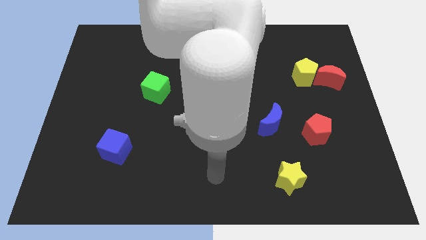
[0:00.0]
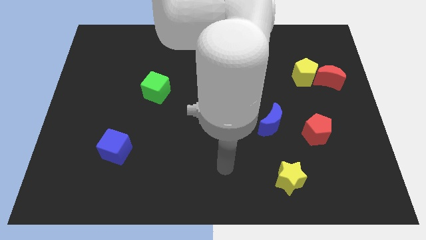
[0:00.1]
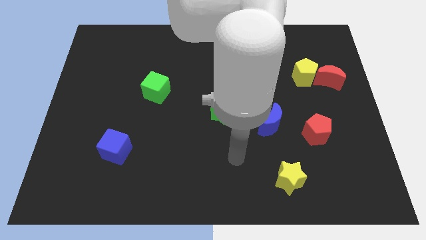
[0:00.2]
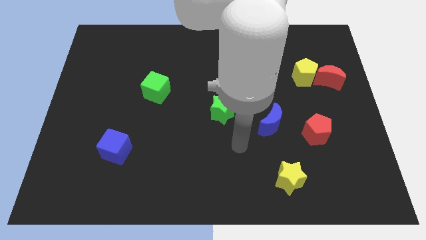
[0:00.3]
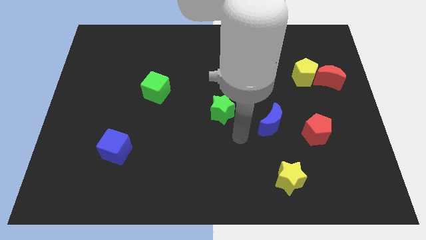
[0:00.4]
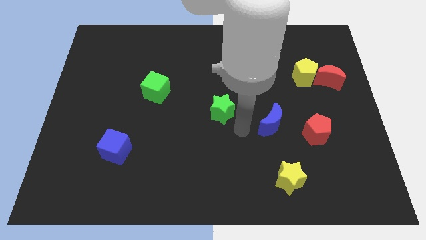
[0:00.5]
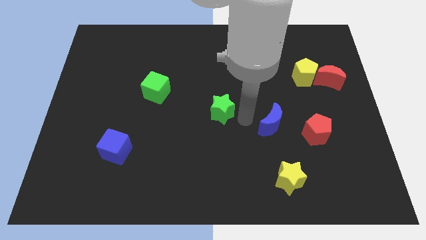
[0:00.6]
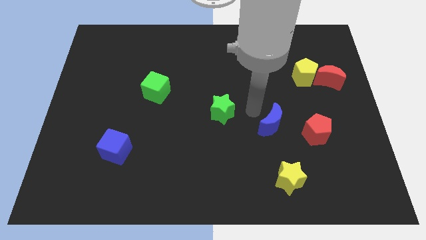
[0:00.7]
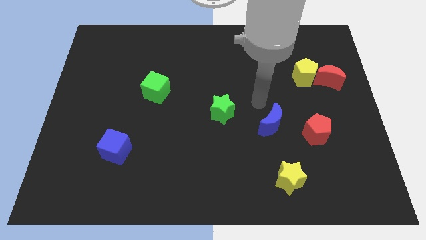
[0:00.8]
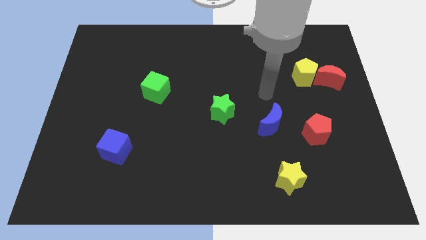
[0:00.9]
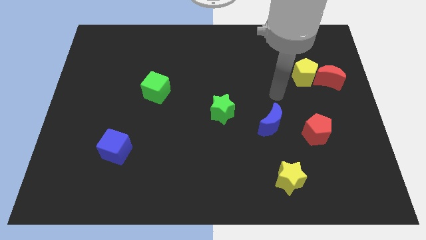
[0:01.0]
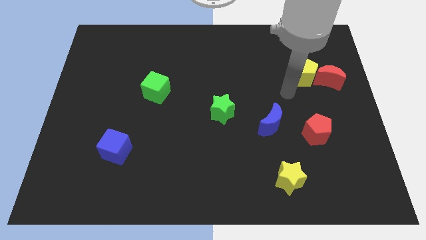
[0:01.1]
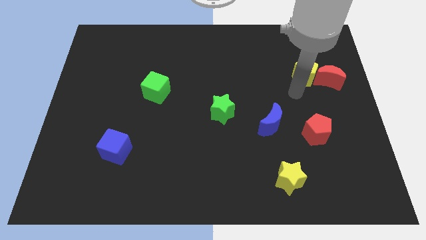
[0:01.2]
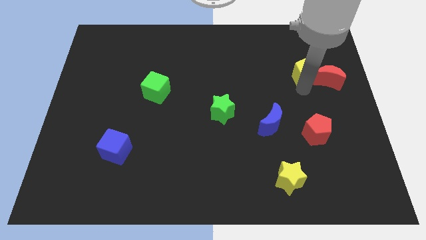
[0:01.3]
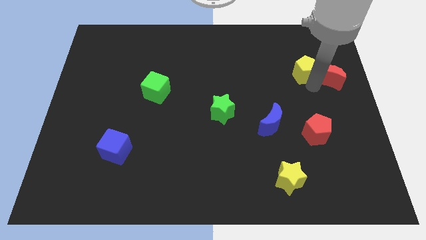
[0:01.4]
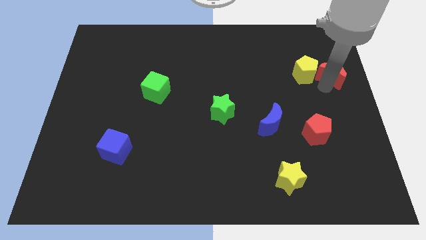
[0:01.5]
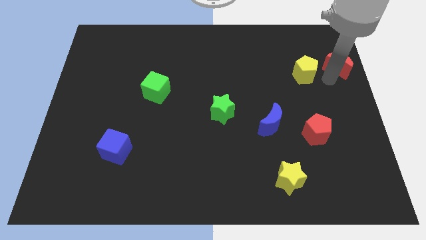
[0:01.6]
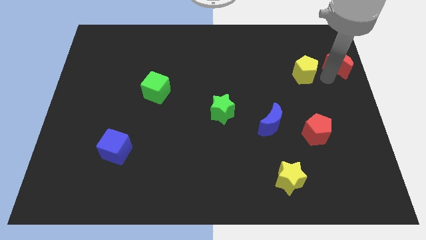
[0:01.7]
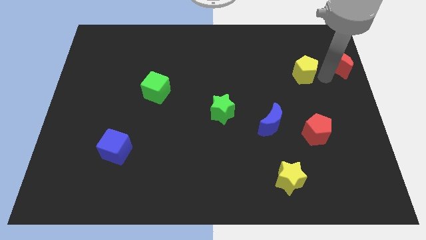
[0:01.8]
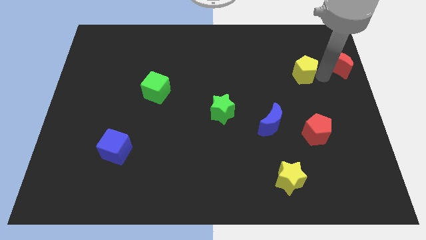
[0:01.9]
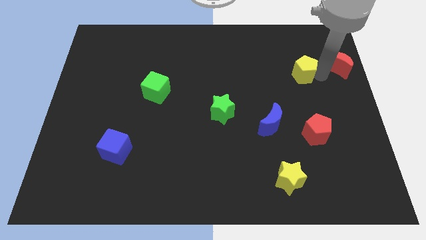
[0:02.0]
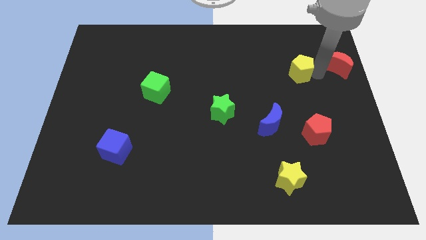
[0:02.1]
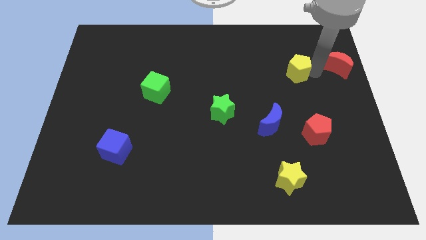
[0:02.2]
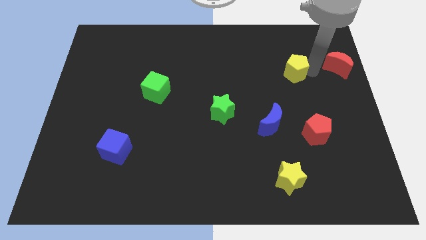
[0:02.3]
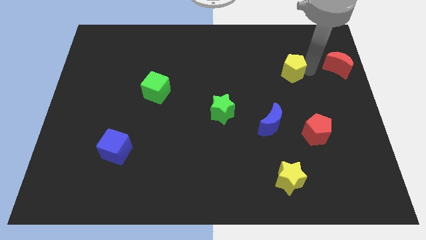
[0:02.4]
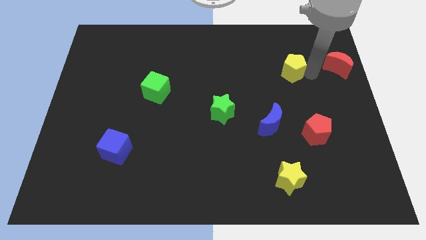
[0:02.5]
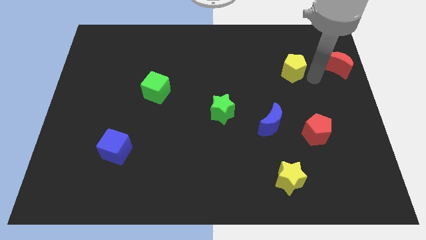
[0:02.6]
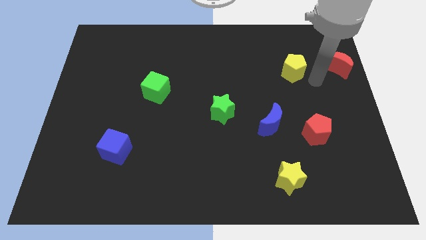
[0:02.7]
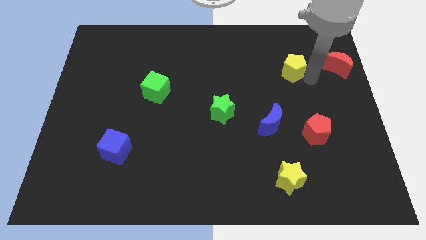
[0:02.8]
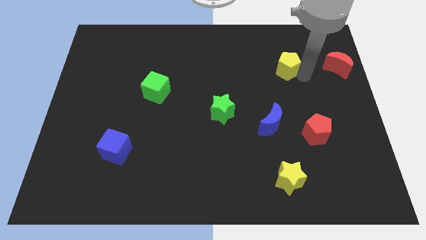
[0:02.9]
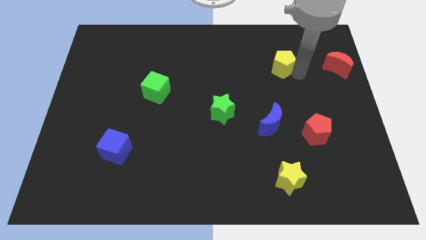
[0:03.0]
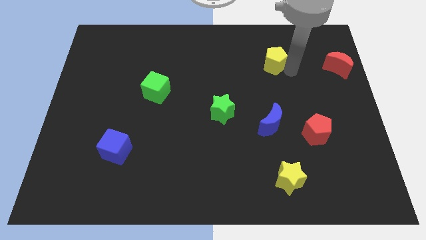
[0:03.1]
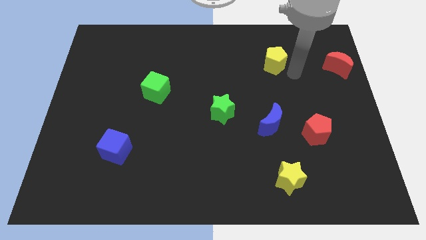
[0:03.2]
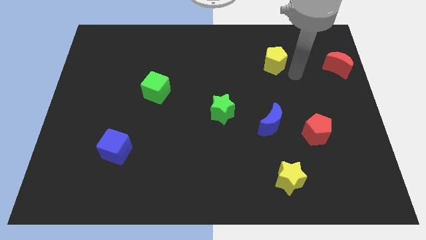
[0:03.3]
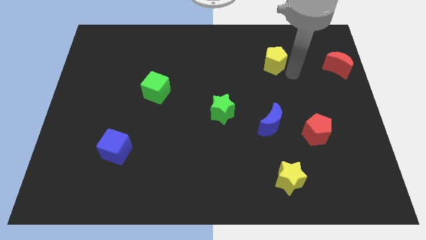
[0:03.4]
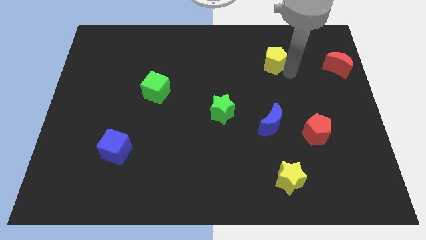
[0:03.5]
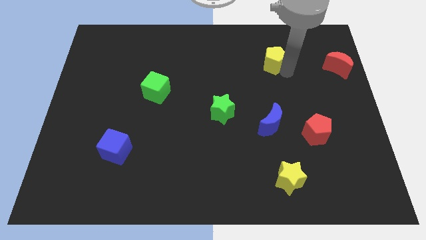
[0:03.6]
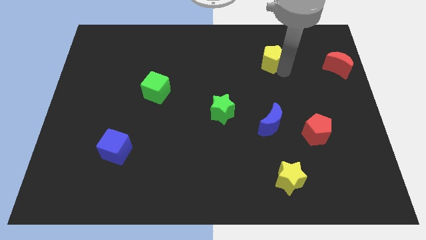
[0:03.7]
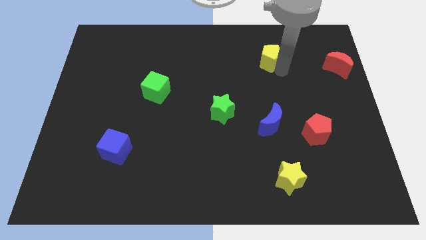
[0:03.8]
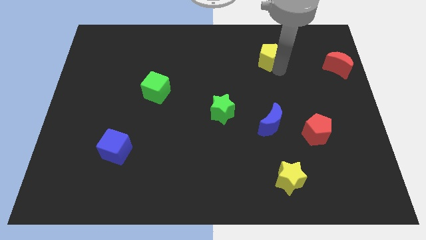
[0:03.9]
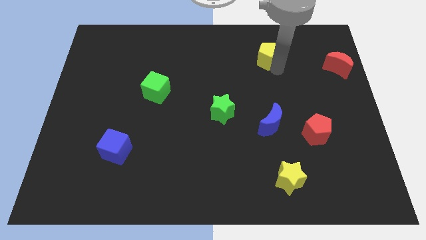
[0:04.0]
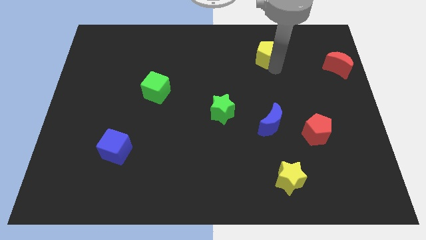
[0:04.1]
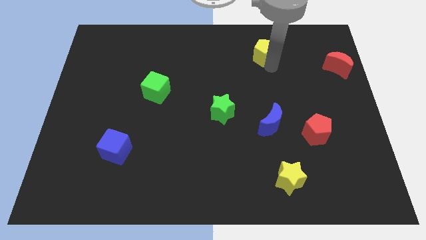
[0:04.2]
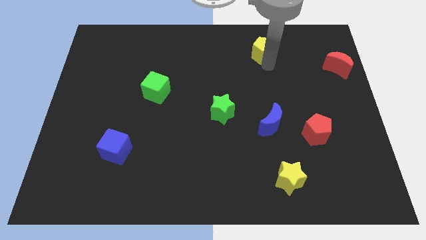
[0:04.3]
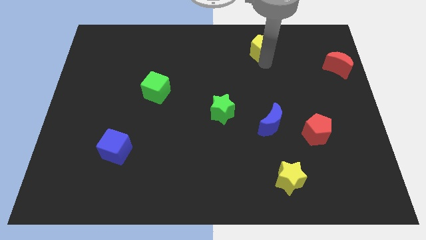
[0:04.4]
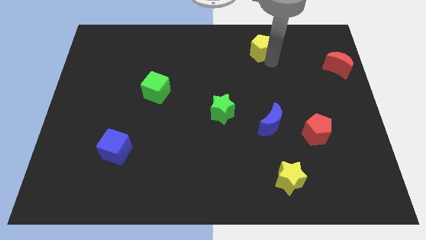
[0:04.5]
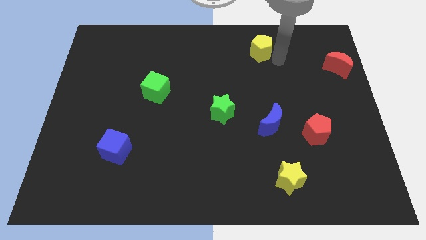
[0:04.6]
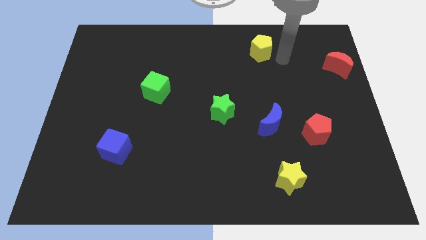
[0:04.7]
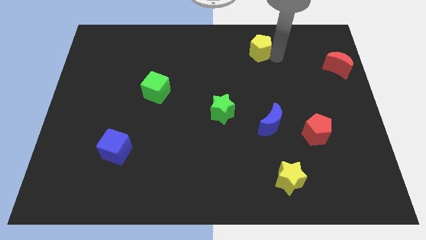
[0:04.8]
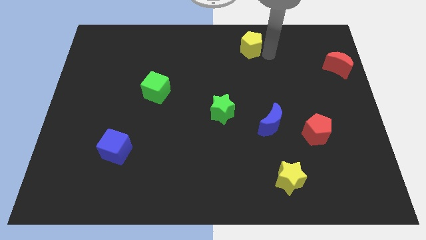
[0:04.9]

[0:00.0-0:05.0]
slide the yellow pentagon to the top

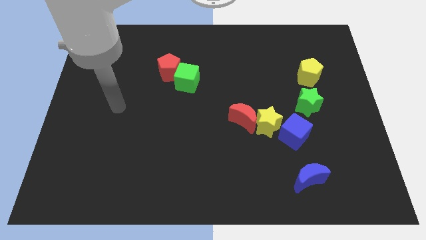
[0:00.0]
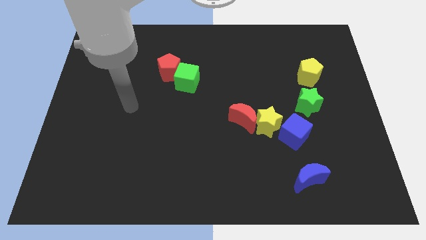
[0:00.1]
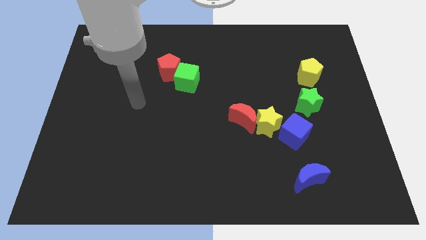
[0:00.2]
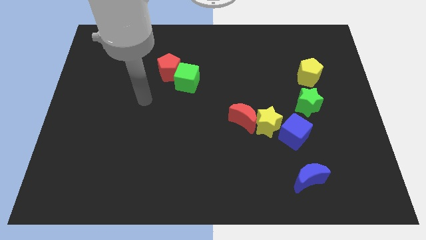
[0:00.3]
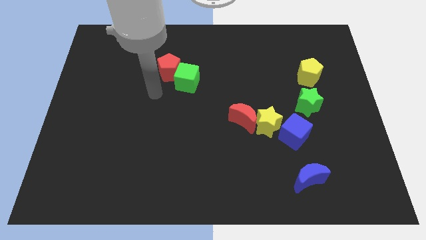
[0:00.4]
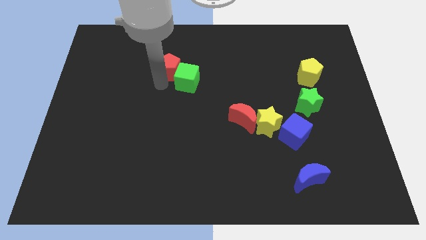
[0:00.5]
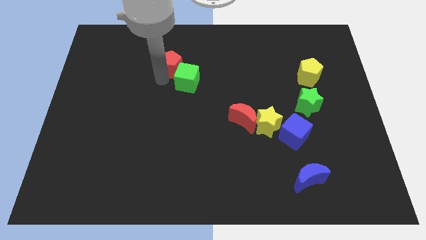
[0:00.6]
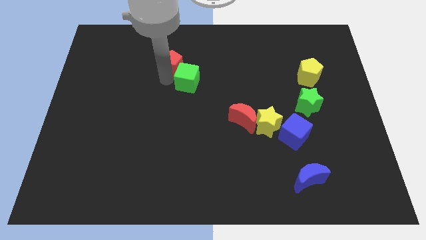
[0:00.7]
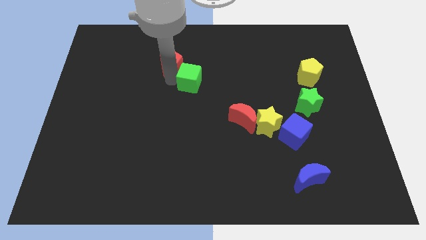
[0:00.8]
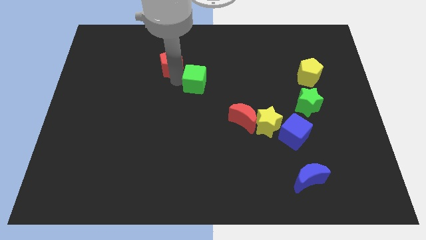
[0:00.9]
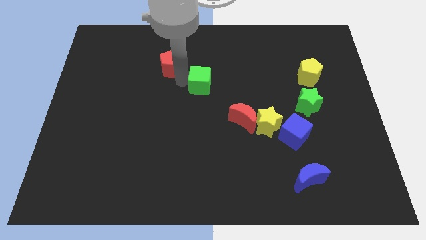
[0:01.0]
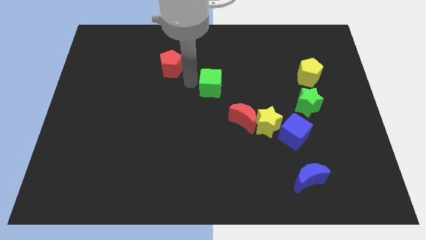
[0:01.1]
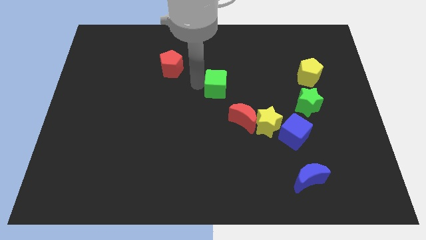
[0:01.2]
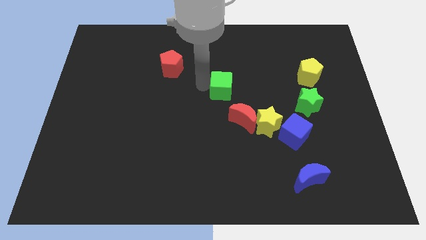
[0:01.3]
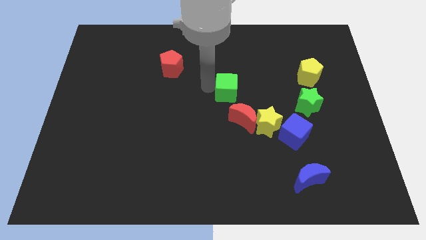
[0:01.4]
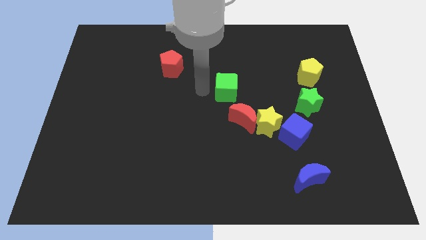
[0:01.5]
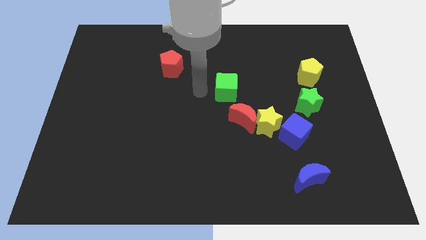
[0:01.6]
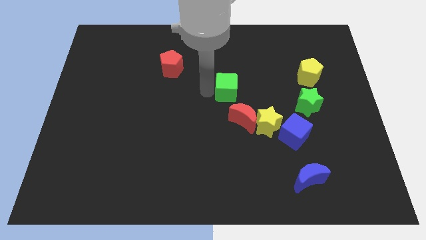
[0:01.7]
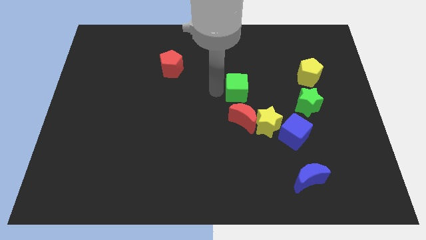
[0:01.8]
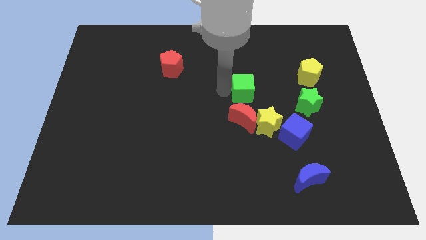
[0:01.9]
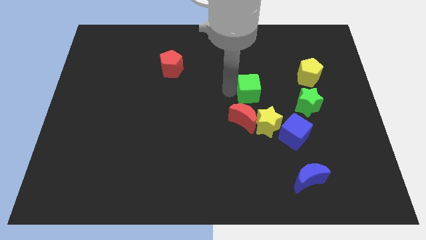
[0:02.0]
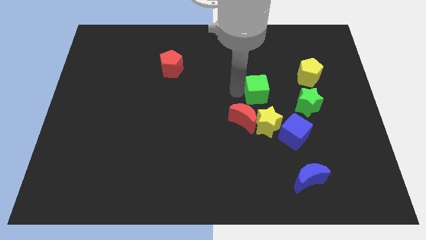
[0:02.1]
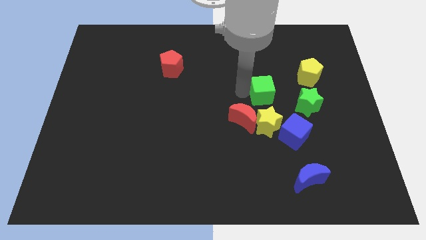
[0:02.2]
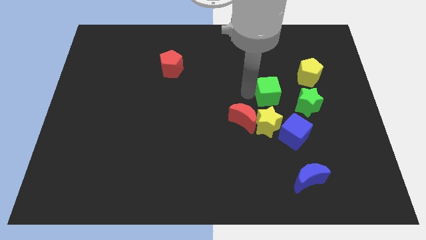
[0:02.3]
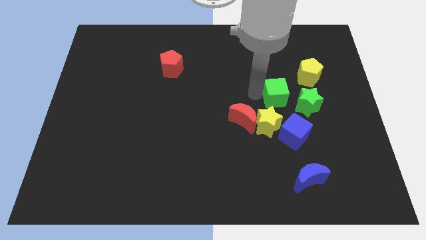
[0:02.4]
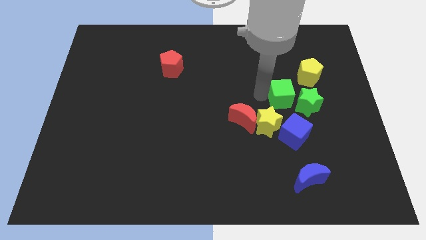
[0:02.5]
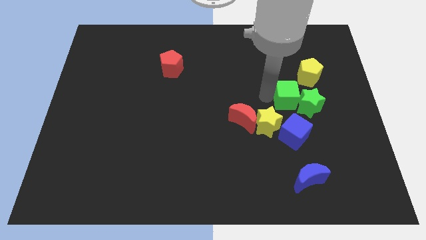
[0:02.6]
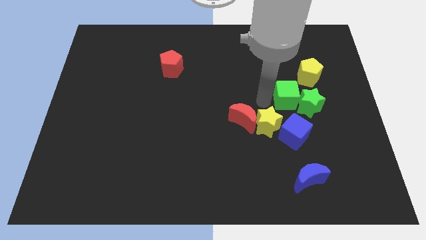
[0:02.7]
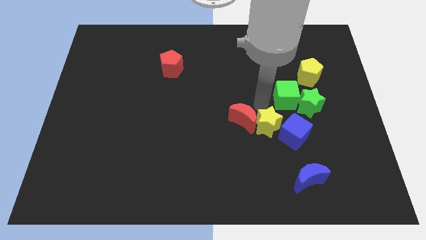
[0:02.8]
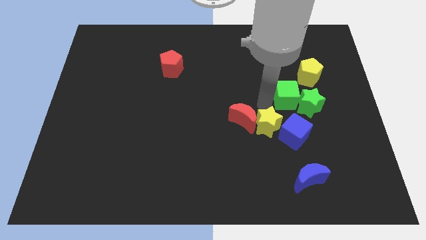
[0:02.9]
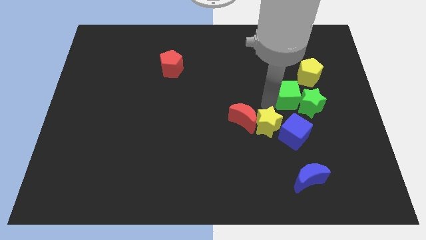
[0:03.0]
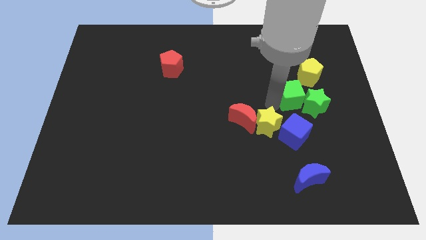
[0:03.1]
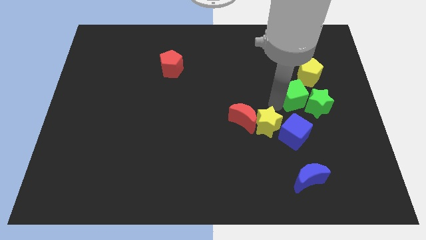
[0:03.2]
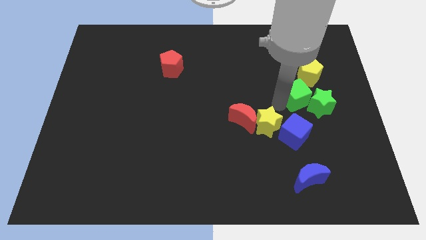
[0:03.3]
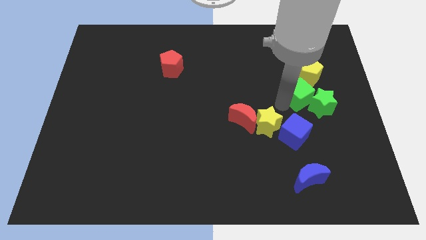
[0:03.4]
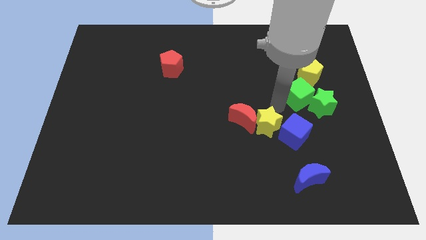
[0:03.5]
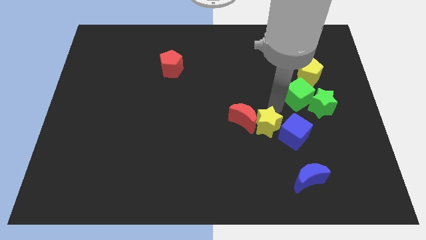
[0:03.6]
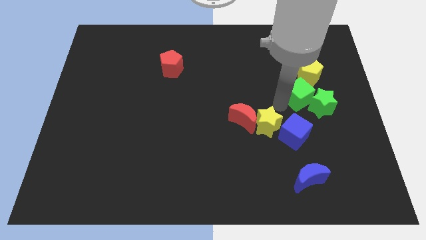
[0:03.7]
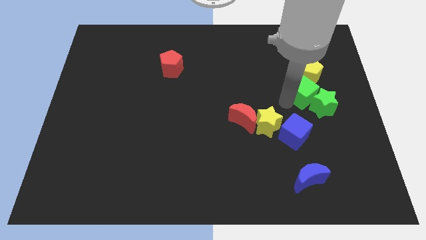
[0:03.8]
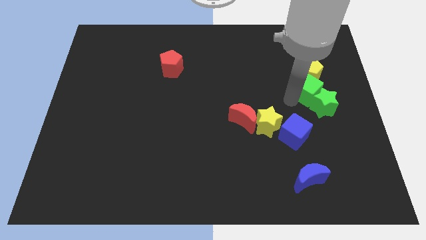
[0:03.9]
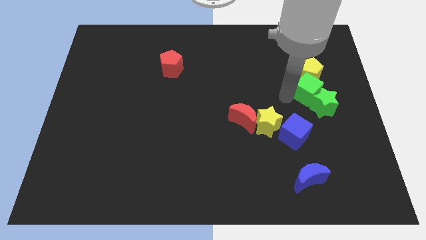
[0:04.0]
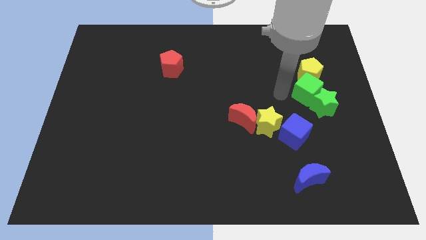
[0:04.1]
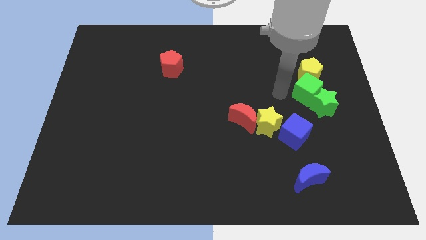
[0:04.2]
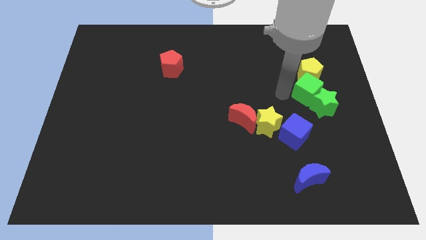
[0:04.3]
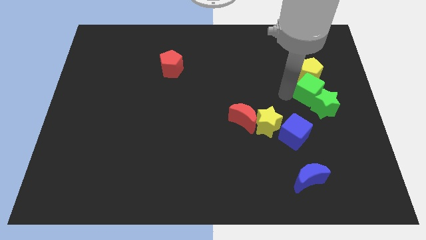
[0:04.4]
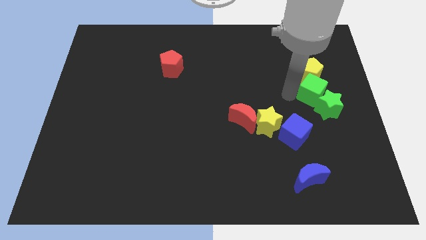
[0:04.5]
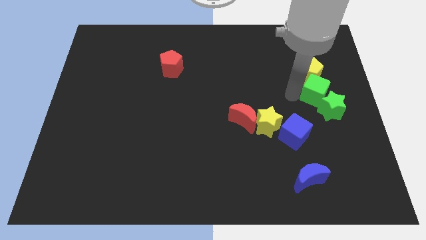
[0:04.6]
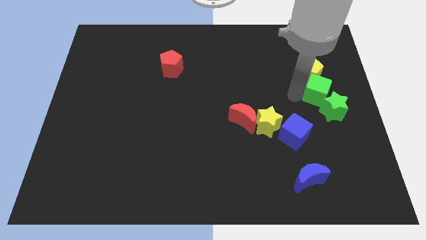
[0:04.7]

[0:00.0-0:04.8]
move the green cube to the center right
